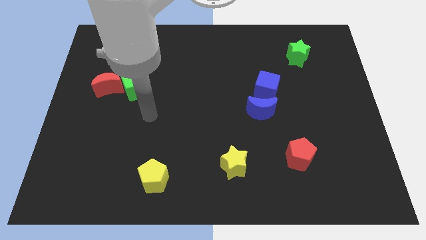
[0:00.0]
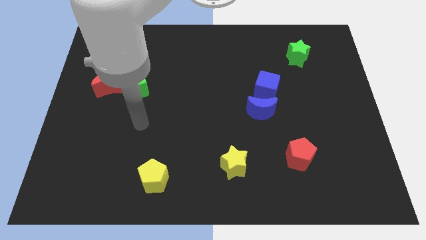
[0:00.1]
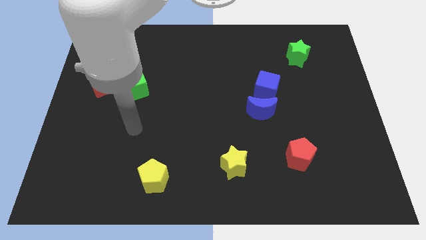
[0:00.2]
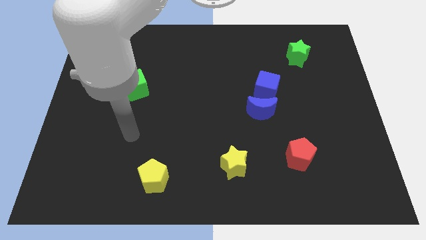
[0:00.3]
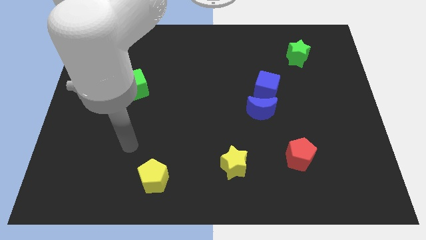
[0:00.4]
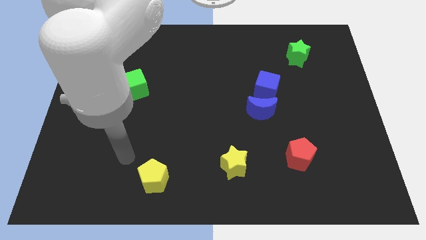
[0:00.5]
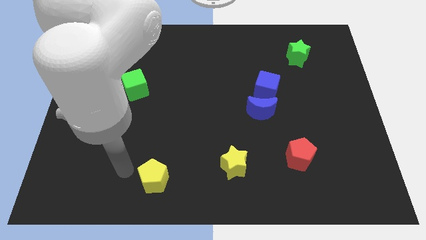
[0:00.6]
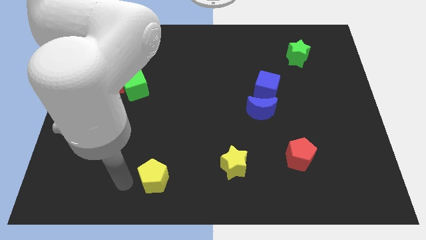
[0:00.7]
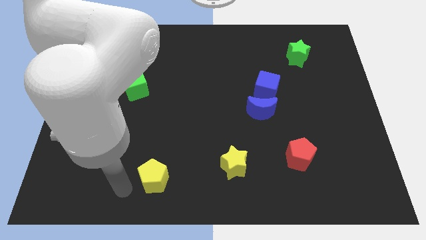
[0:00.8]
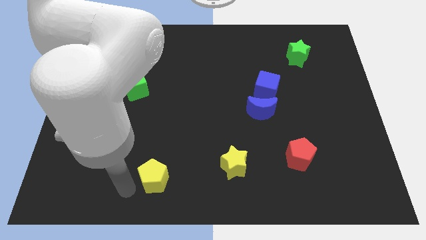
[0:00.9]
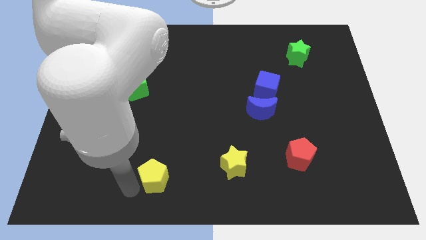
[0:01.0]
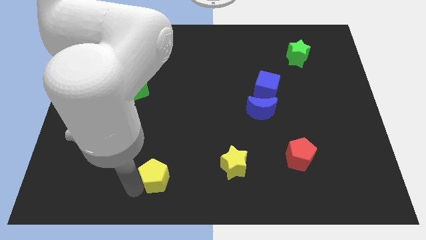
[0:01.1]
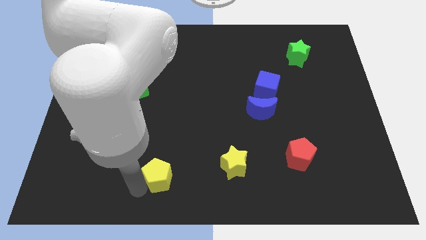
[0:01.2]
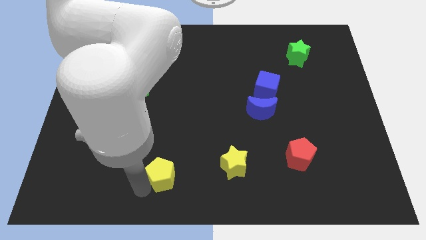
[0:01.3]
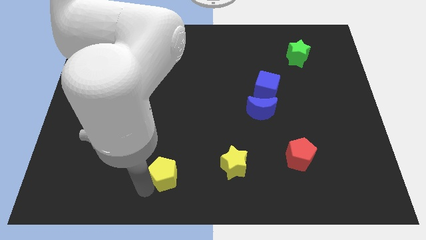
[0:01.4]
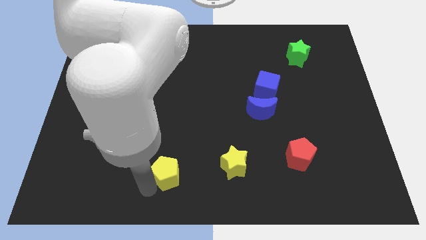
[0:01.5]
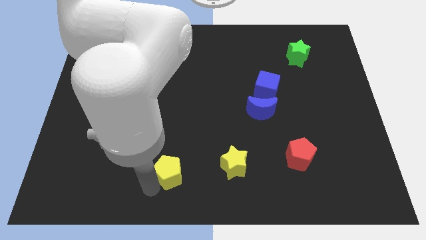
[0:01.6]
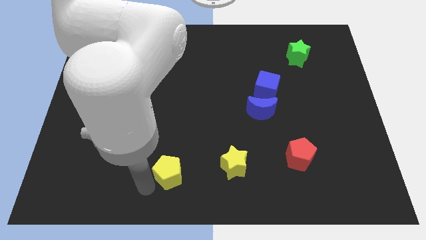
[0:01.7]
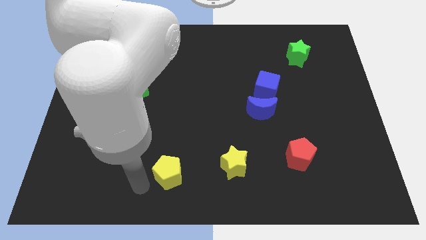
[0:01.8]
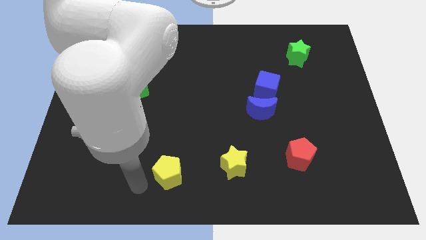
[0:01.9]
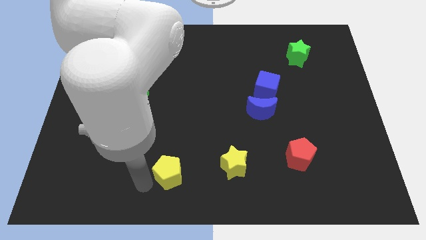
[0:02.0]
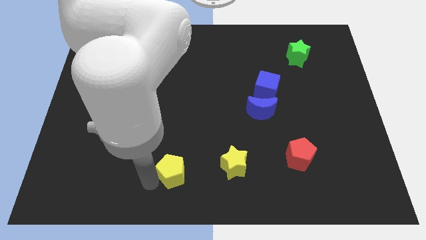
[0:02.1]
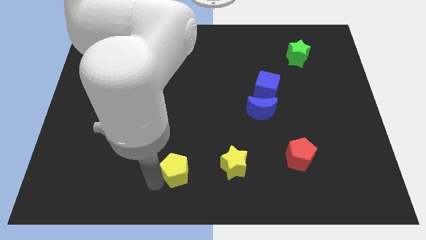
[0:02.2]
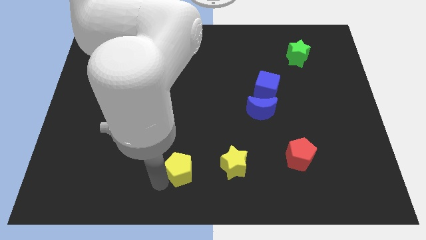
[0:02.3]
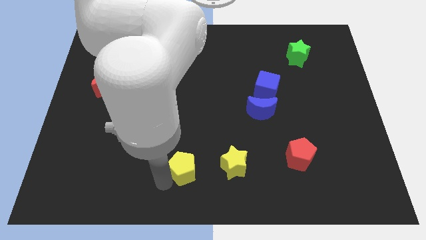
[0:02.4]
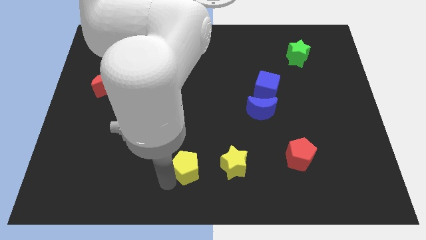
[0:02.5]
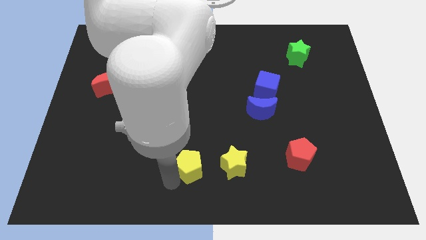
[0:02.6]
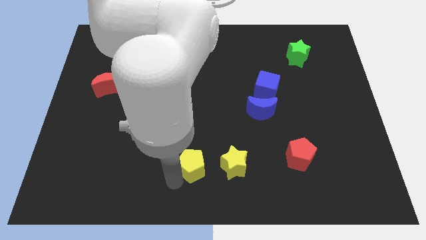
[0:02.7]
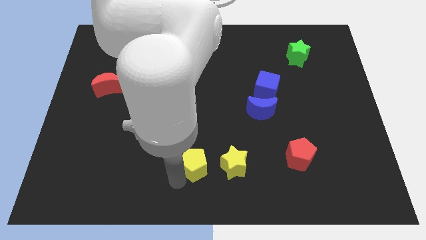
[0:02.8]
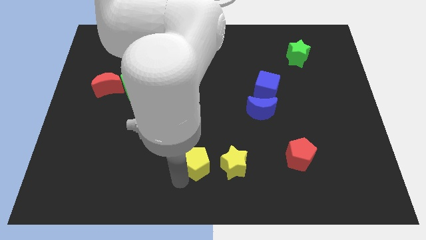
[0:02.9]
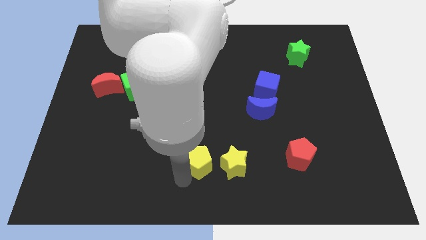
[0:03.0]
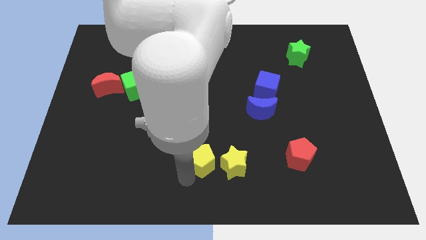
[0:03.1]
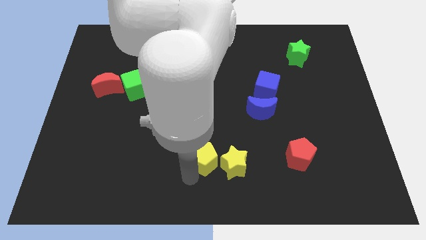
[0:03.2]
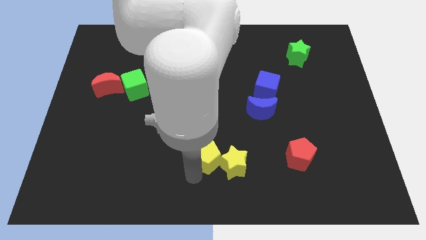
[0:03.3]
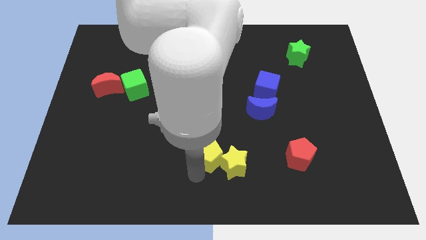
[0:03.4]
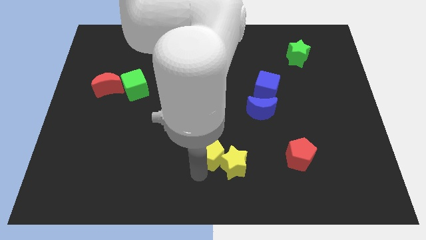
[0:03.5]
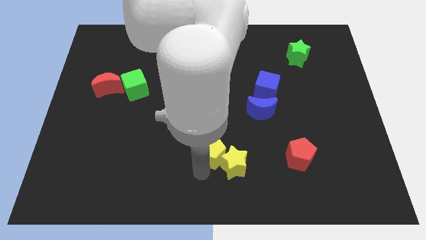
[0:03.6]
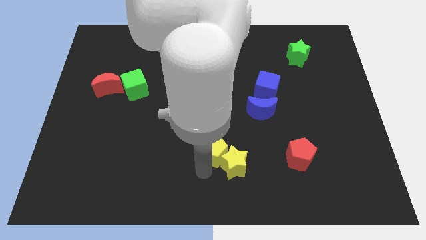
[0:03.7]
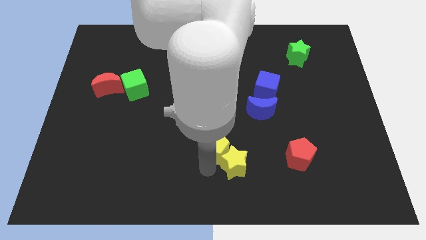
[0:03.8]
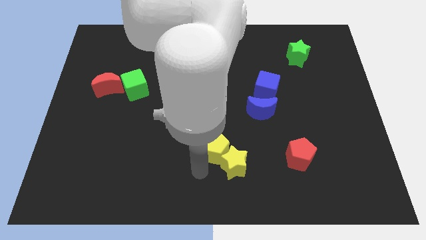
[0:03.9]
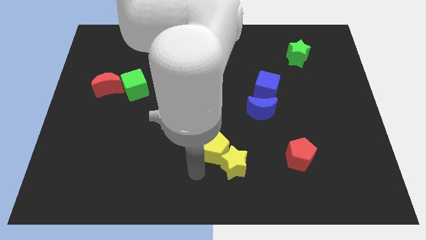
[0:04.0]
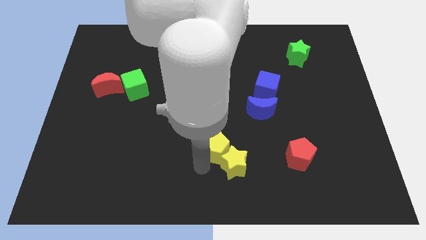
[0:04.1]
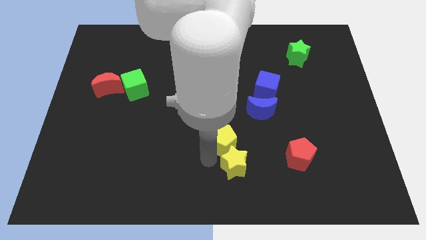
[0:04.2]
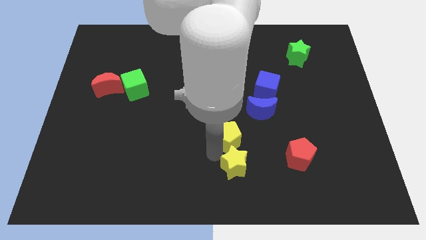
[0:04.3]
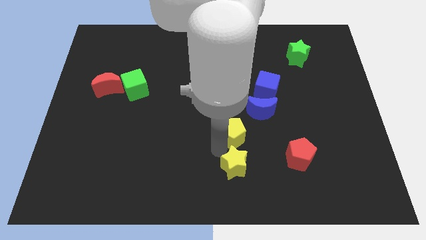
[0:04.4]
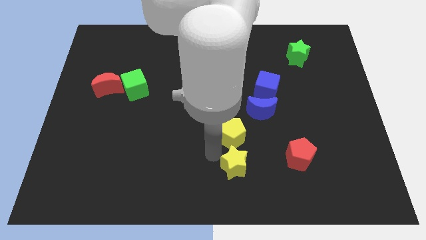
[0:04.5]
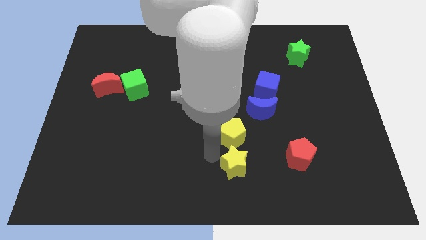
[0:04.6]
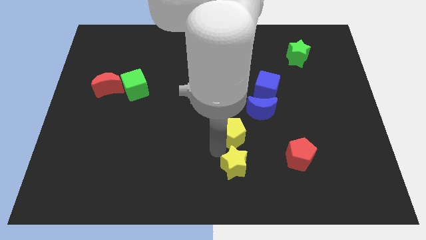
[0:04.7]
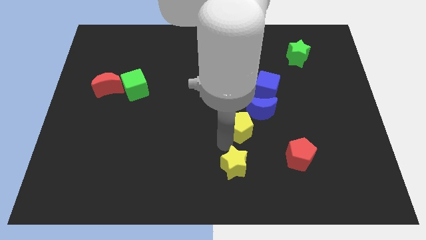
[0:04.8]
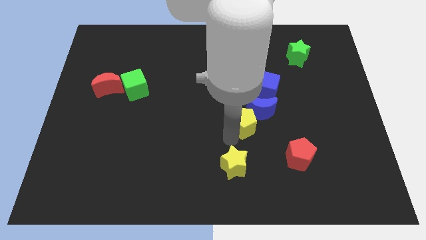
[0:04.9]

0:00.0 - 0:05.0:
slide the yellow pentagon next to the blue moon

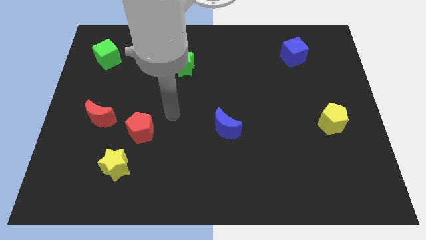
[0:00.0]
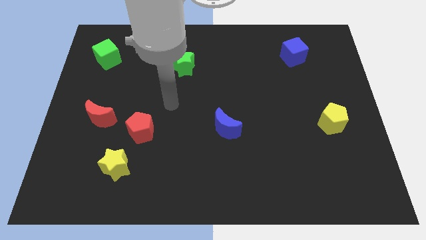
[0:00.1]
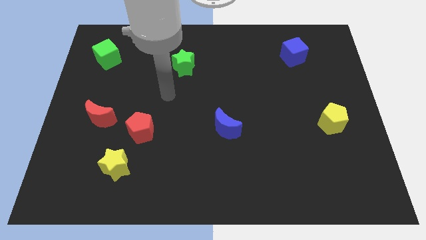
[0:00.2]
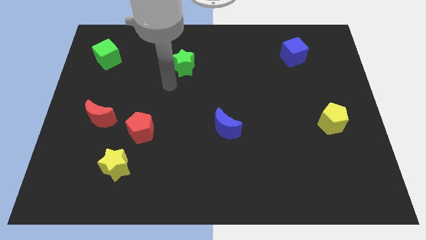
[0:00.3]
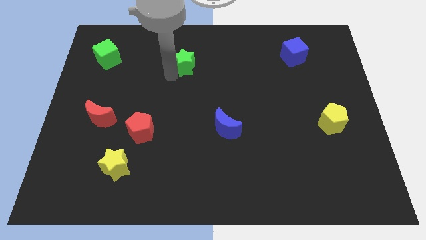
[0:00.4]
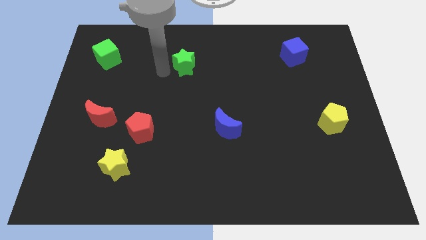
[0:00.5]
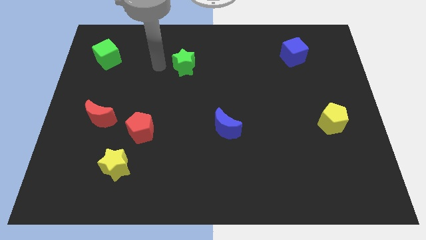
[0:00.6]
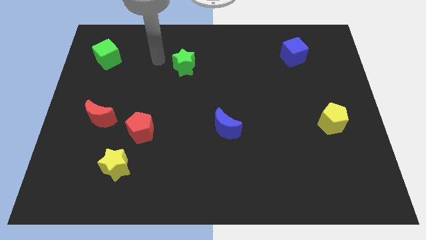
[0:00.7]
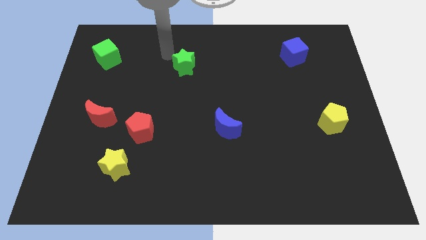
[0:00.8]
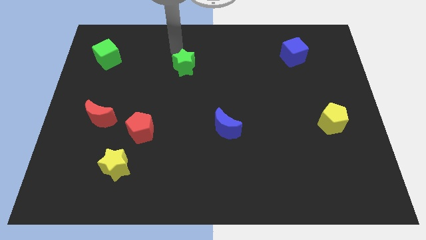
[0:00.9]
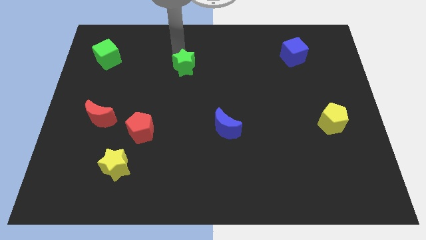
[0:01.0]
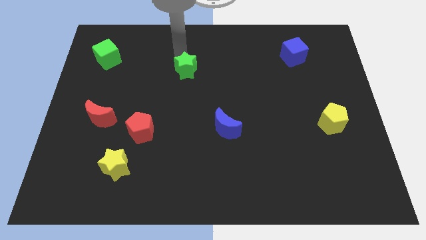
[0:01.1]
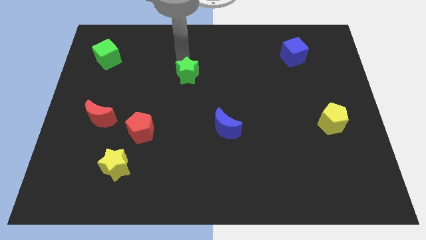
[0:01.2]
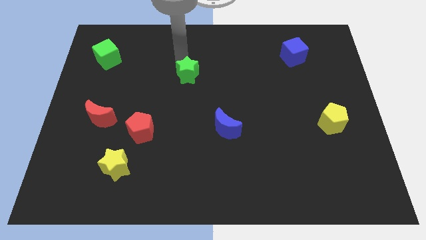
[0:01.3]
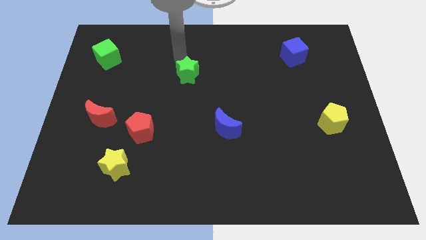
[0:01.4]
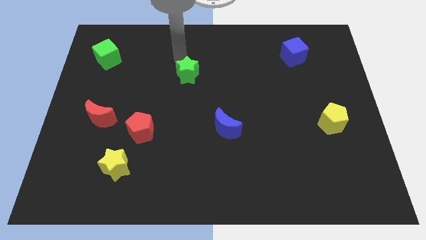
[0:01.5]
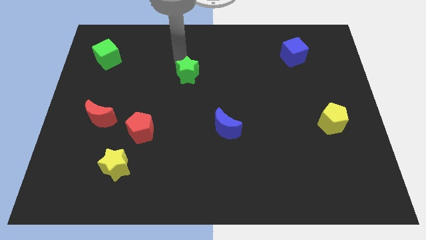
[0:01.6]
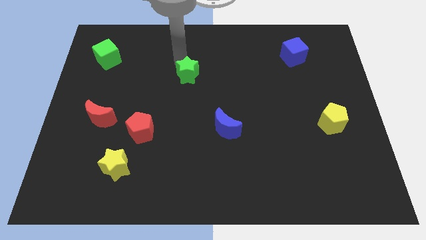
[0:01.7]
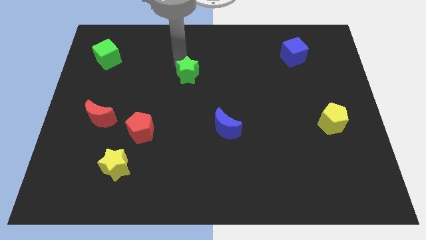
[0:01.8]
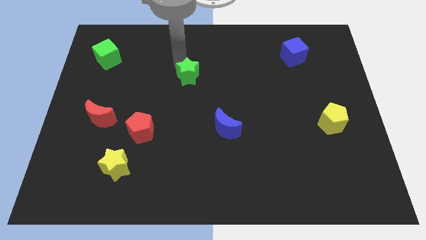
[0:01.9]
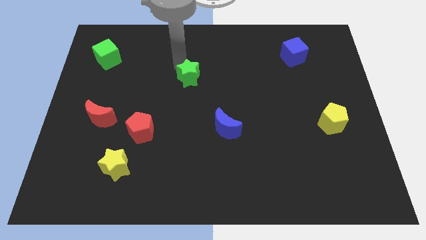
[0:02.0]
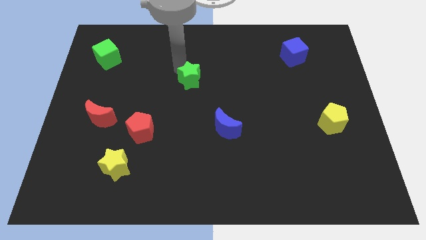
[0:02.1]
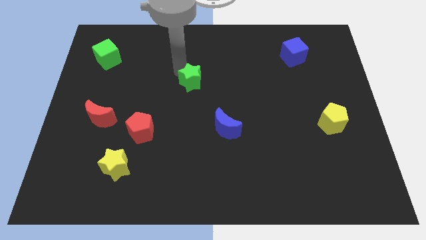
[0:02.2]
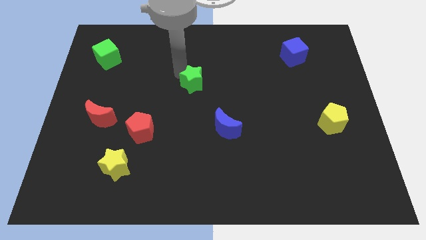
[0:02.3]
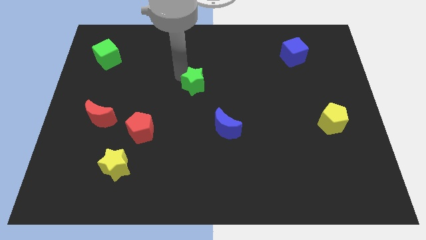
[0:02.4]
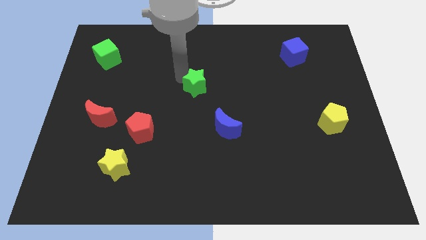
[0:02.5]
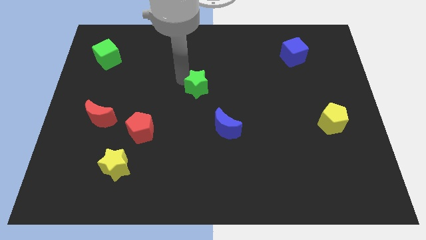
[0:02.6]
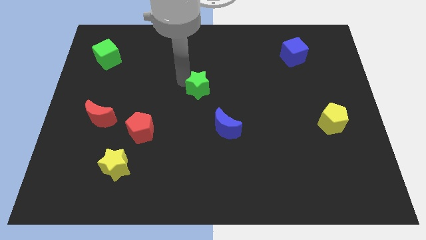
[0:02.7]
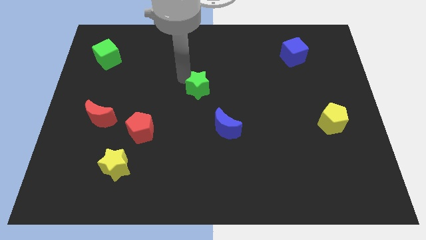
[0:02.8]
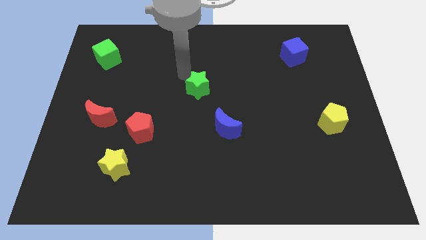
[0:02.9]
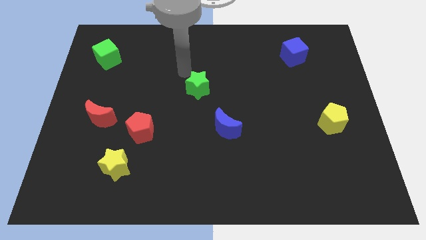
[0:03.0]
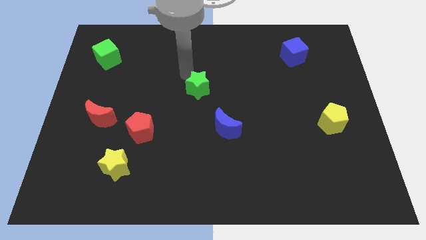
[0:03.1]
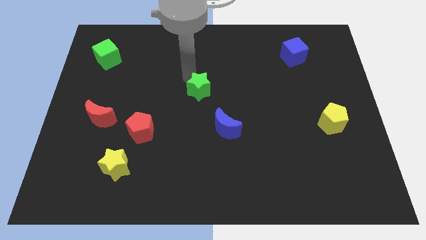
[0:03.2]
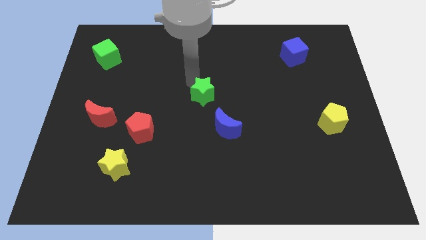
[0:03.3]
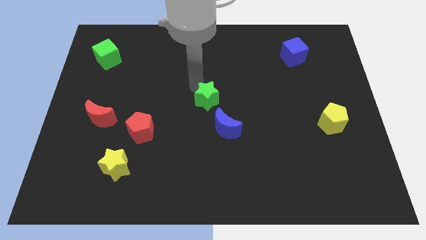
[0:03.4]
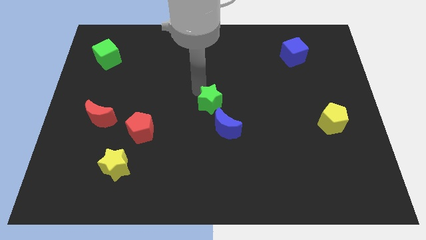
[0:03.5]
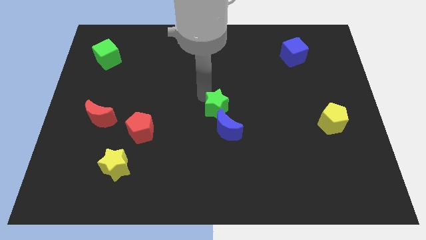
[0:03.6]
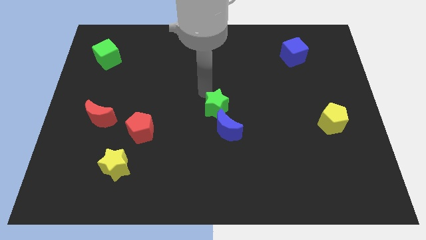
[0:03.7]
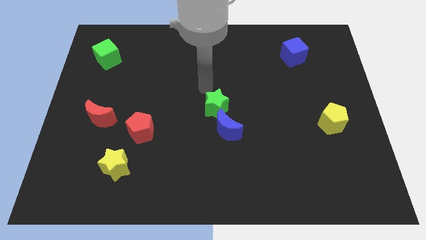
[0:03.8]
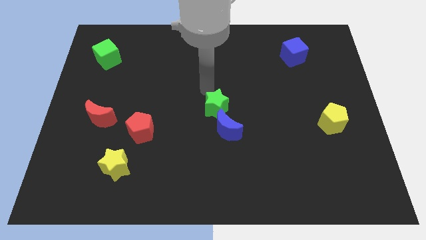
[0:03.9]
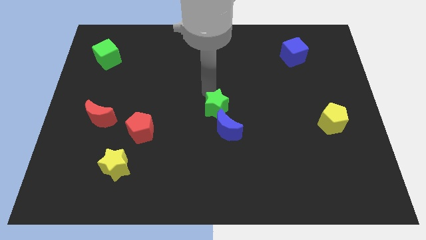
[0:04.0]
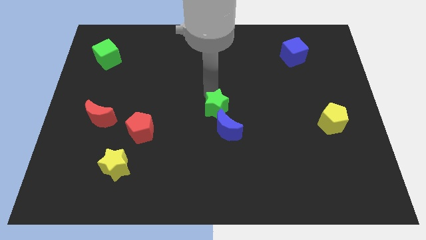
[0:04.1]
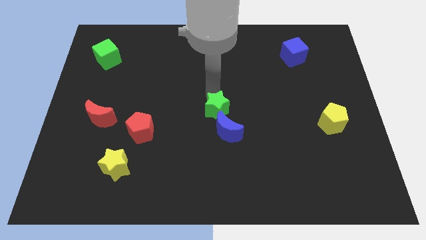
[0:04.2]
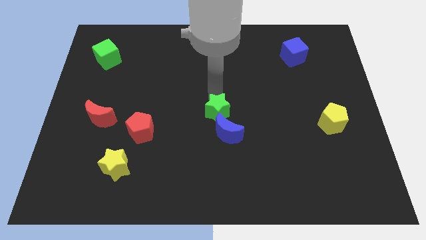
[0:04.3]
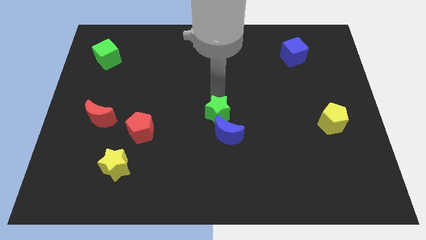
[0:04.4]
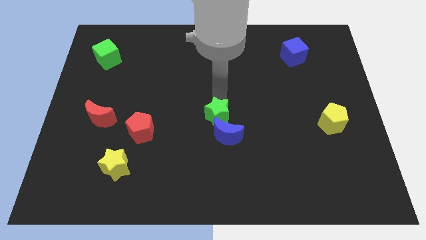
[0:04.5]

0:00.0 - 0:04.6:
push the green star close to the blue moon
